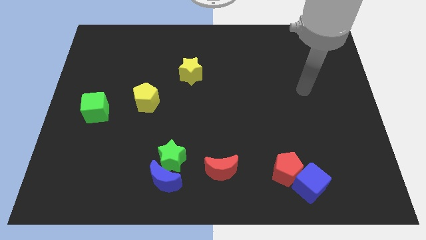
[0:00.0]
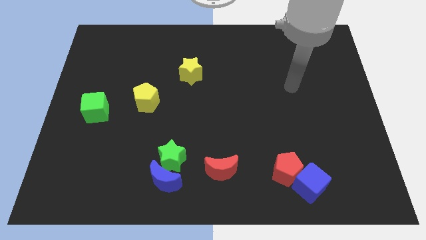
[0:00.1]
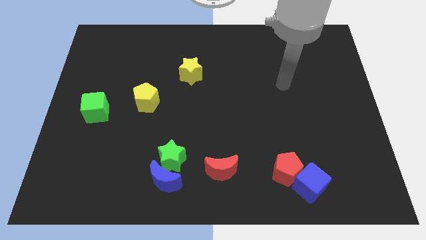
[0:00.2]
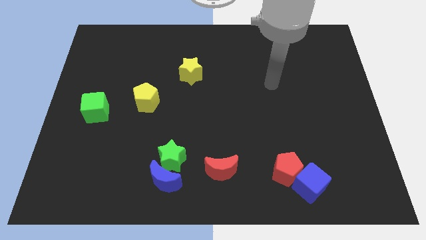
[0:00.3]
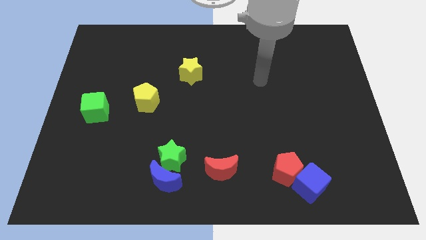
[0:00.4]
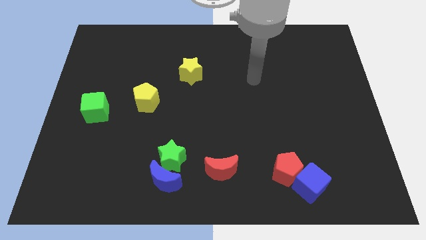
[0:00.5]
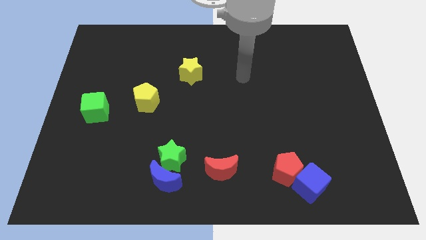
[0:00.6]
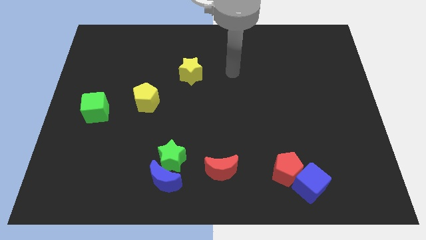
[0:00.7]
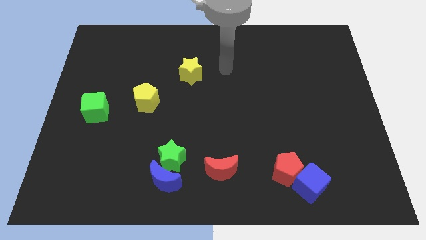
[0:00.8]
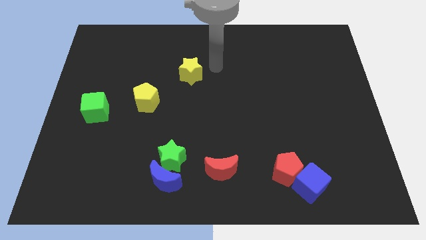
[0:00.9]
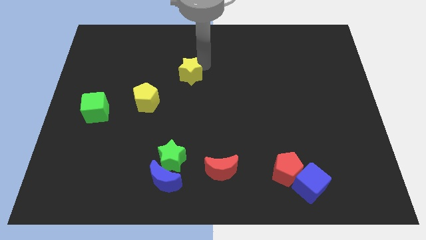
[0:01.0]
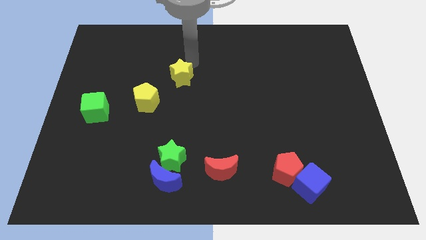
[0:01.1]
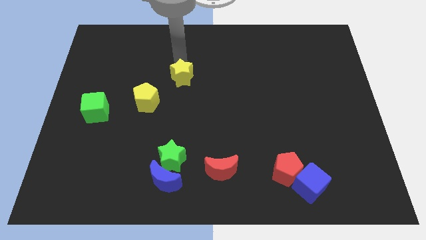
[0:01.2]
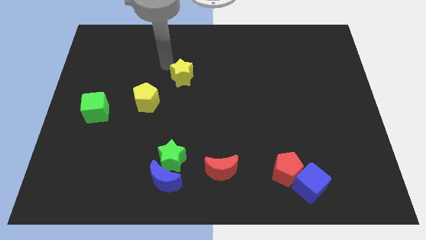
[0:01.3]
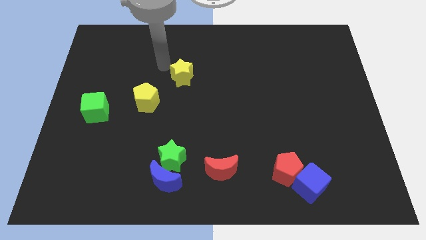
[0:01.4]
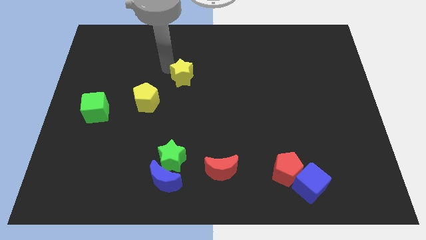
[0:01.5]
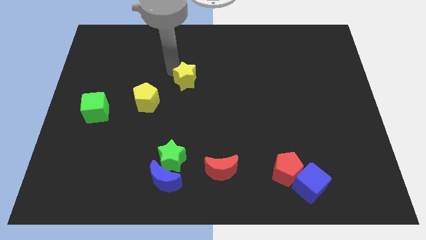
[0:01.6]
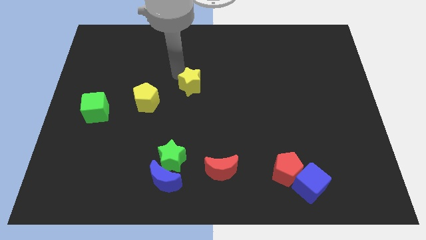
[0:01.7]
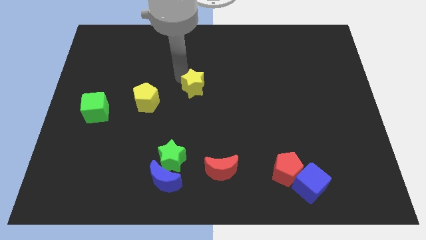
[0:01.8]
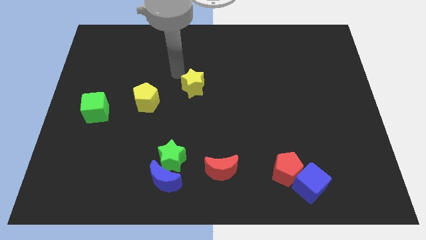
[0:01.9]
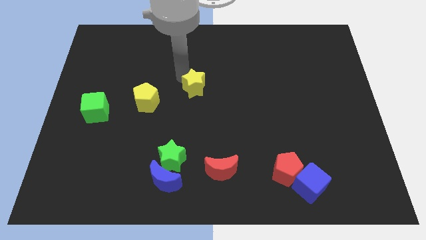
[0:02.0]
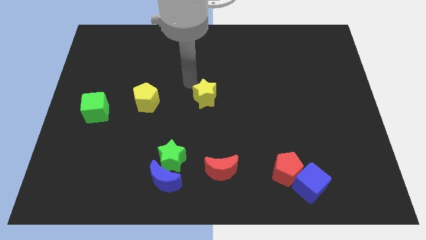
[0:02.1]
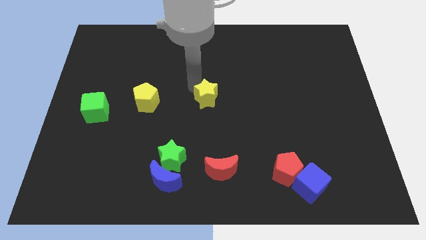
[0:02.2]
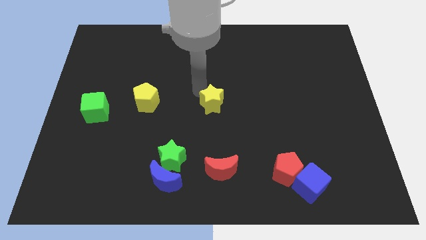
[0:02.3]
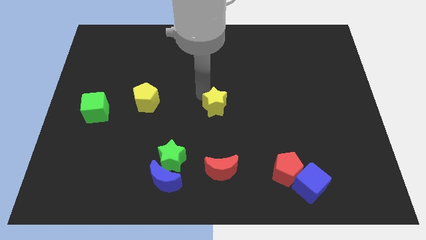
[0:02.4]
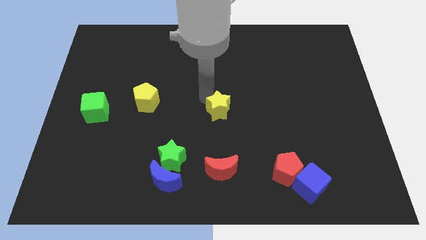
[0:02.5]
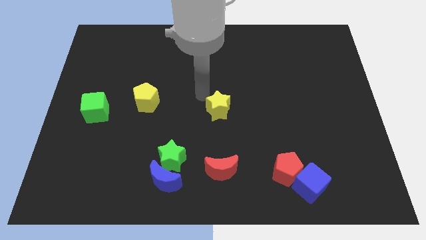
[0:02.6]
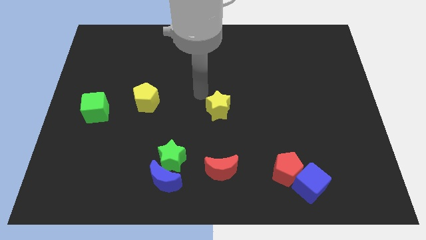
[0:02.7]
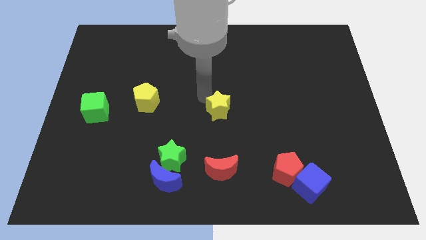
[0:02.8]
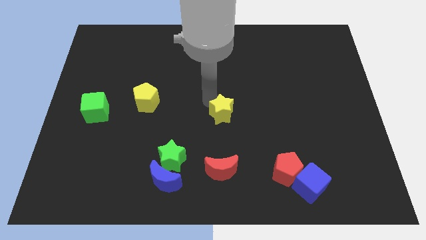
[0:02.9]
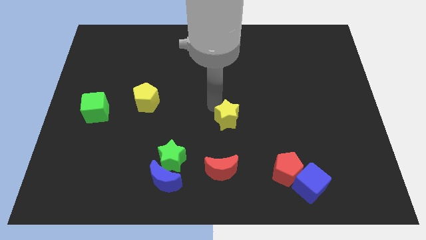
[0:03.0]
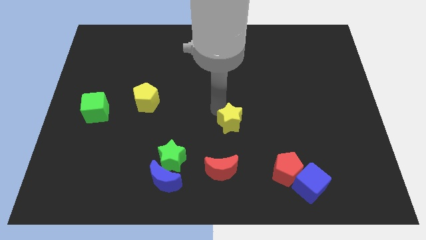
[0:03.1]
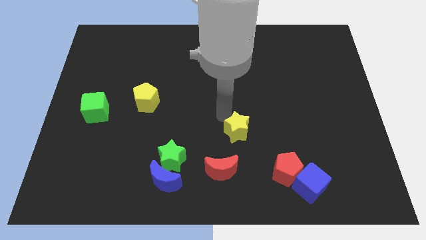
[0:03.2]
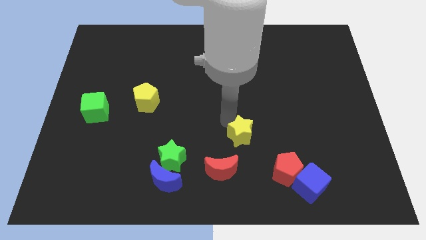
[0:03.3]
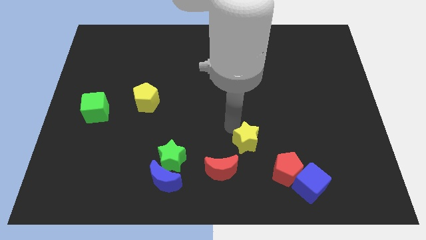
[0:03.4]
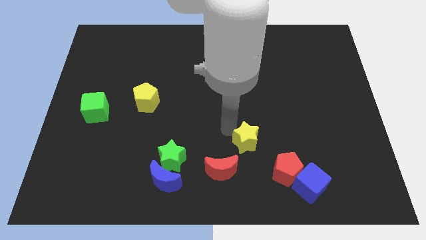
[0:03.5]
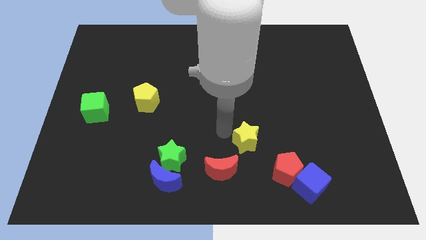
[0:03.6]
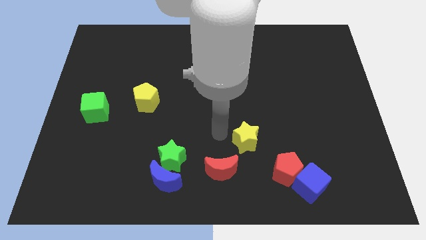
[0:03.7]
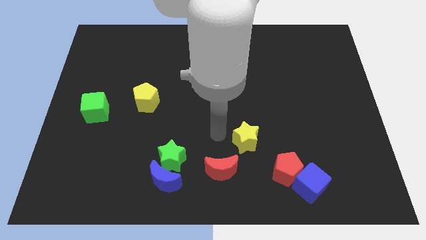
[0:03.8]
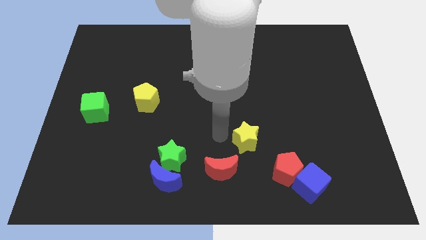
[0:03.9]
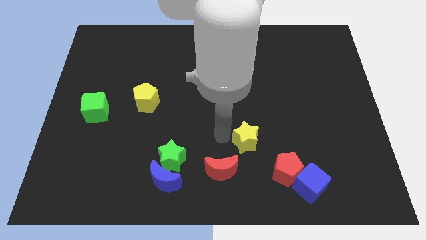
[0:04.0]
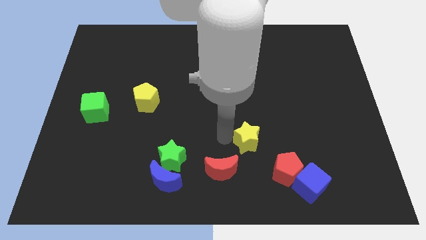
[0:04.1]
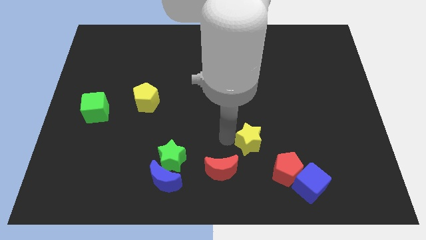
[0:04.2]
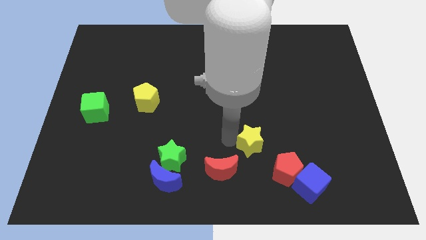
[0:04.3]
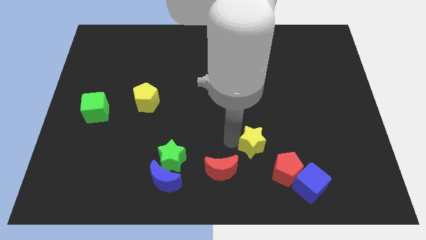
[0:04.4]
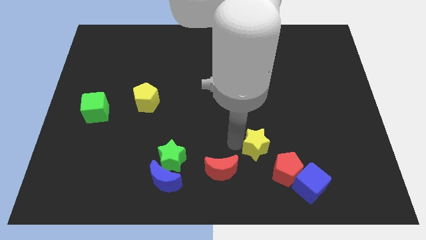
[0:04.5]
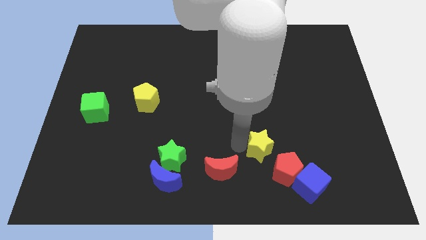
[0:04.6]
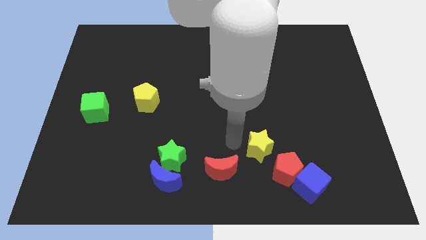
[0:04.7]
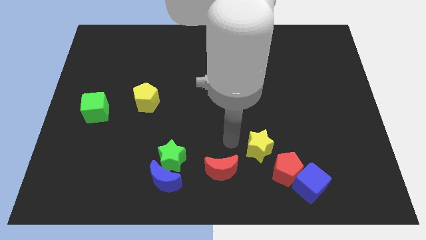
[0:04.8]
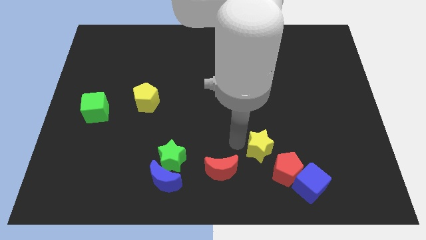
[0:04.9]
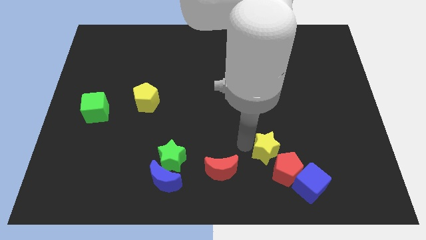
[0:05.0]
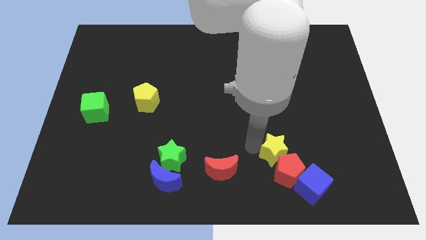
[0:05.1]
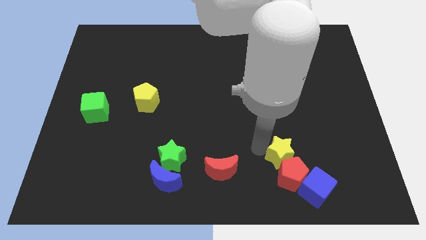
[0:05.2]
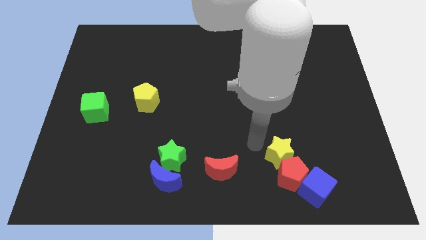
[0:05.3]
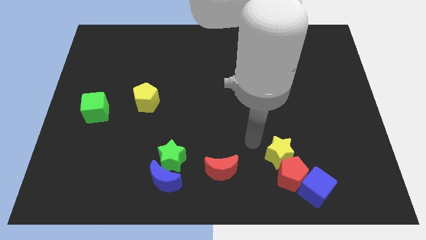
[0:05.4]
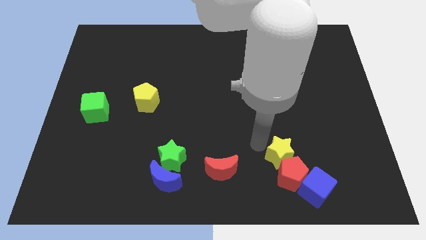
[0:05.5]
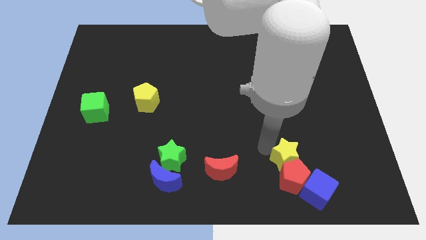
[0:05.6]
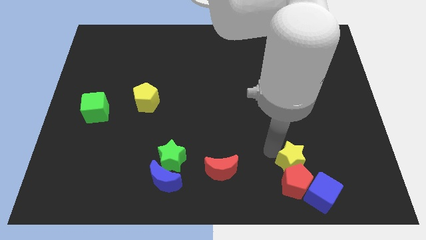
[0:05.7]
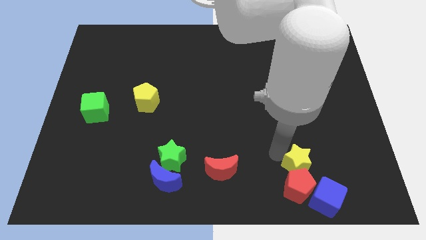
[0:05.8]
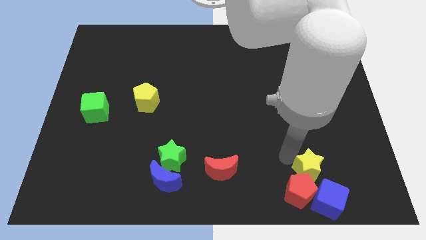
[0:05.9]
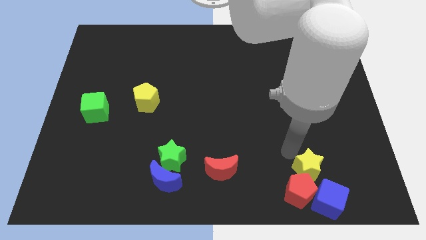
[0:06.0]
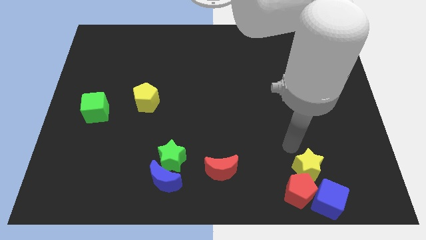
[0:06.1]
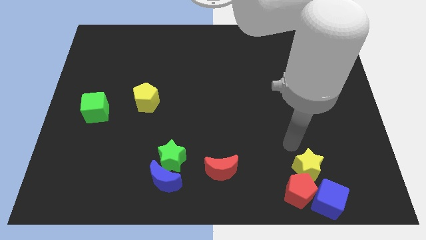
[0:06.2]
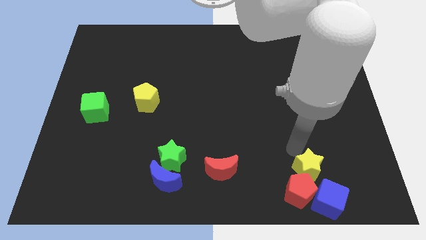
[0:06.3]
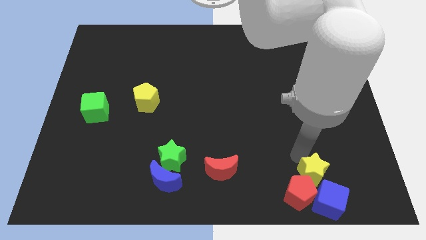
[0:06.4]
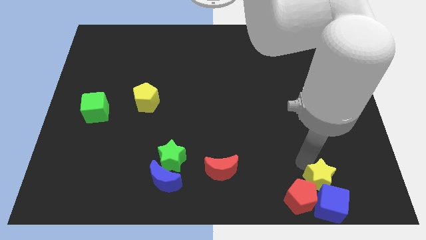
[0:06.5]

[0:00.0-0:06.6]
slide the yellow star to the blue cube
